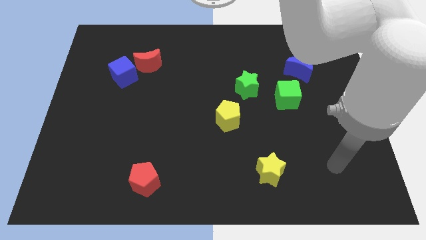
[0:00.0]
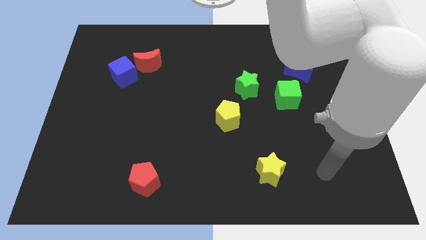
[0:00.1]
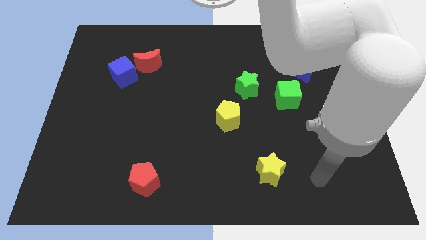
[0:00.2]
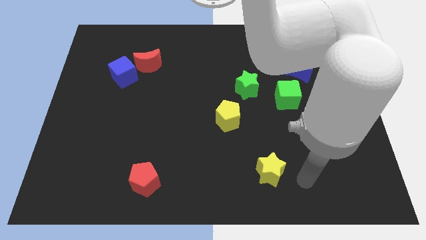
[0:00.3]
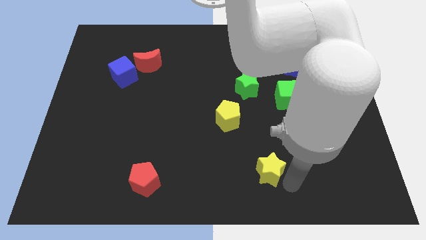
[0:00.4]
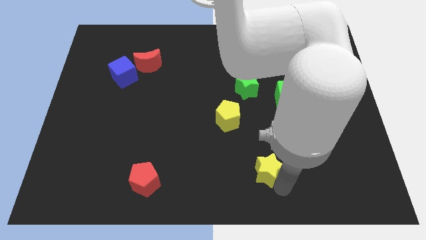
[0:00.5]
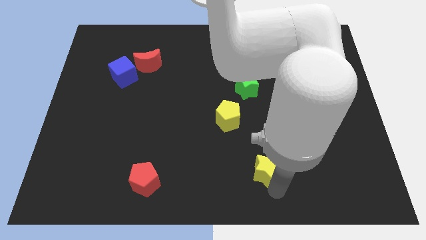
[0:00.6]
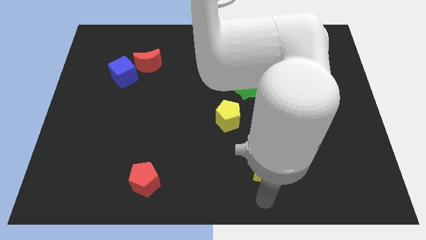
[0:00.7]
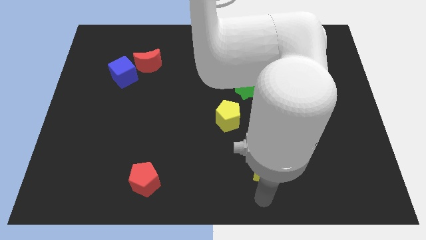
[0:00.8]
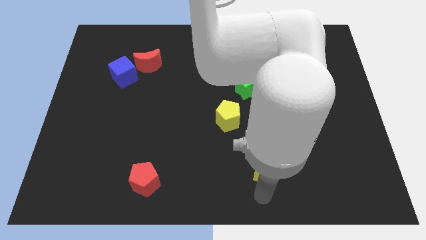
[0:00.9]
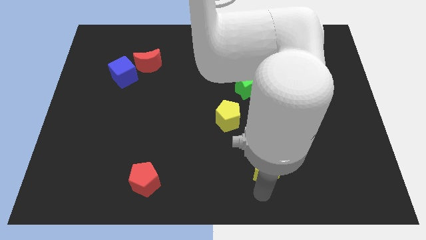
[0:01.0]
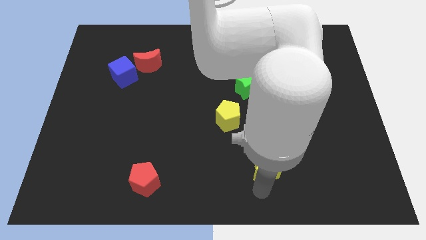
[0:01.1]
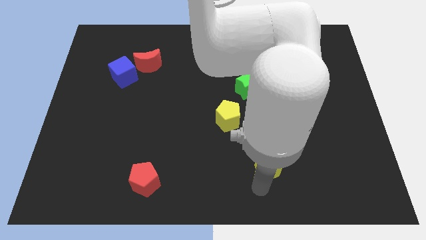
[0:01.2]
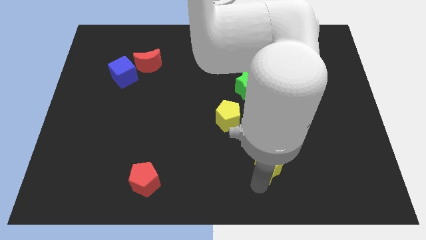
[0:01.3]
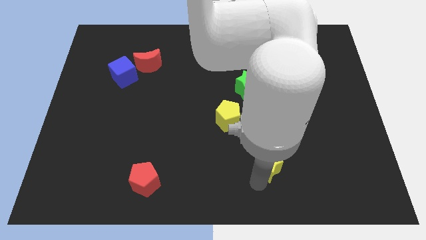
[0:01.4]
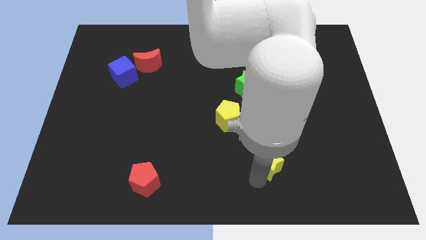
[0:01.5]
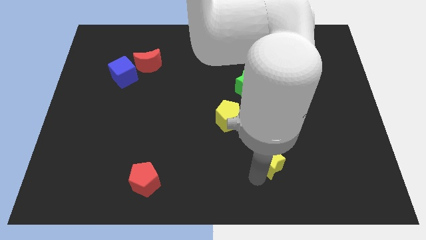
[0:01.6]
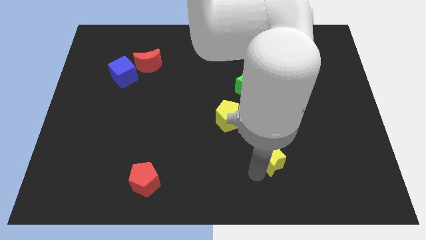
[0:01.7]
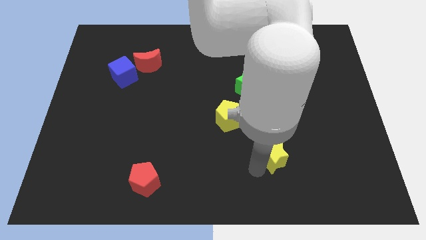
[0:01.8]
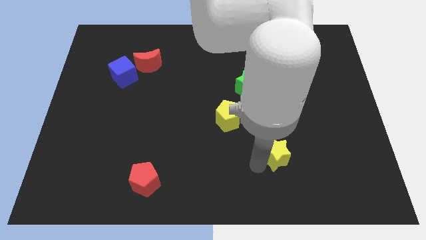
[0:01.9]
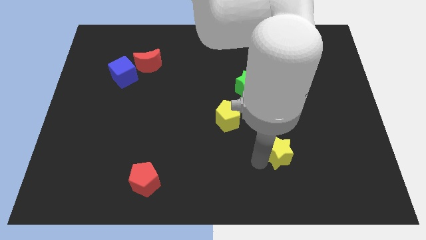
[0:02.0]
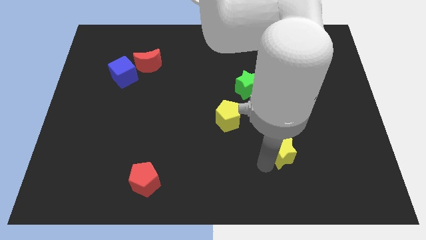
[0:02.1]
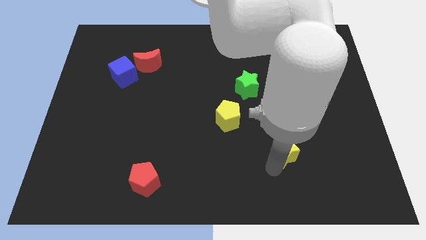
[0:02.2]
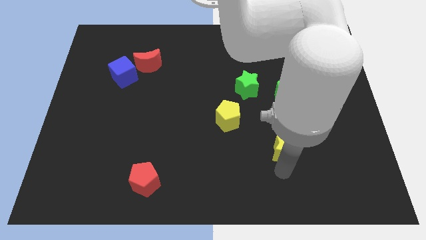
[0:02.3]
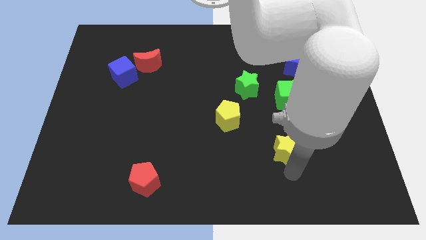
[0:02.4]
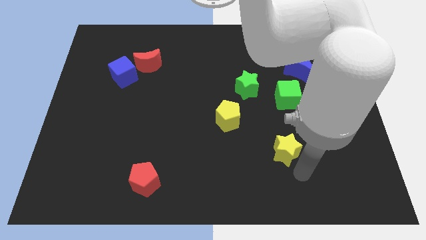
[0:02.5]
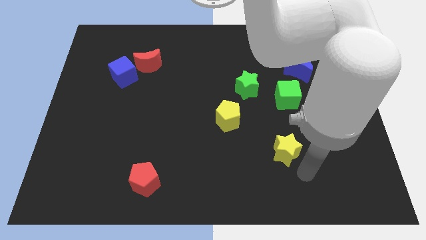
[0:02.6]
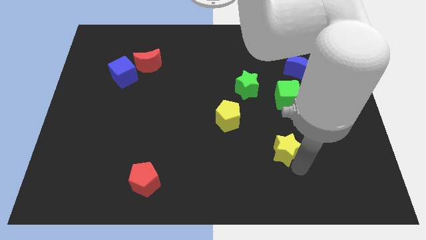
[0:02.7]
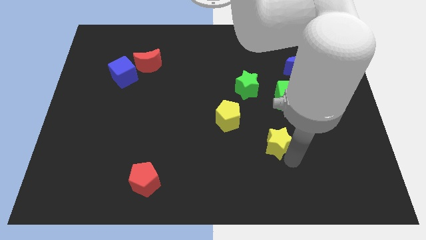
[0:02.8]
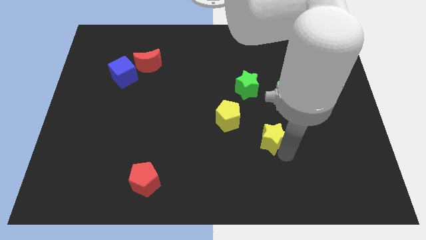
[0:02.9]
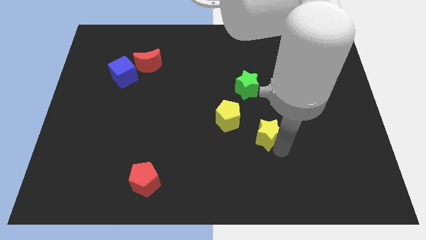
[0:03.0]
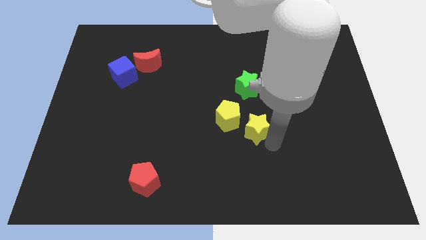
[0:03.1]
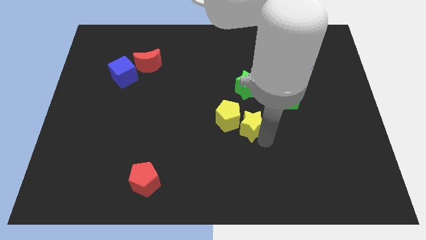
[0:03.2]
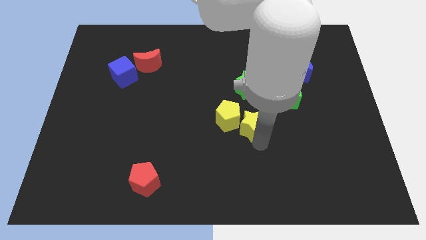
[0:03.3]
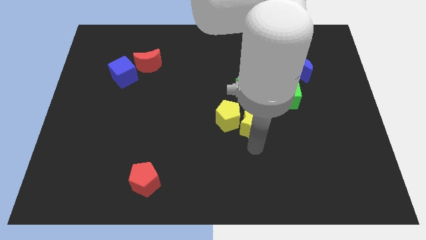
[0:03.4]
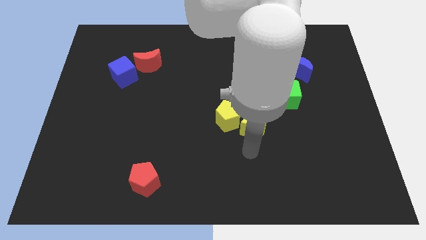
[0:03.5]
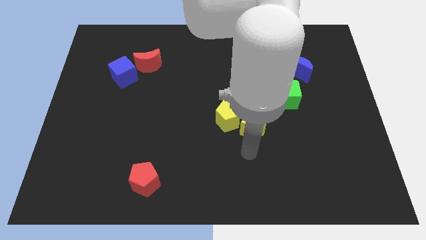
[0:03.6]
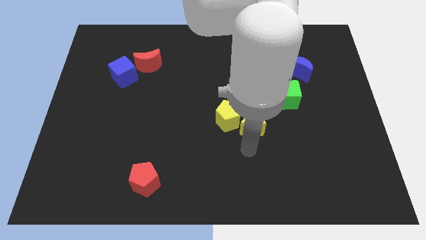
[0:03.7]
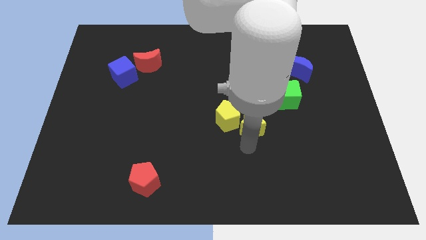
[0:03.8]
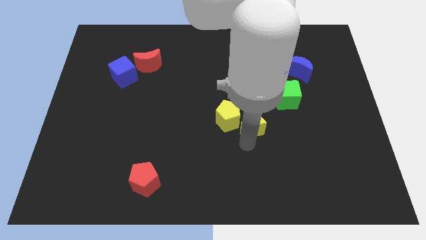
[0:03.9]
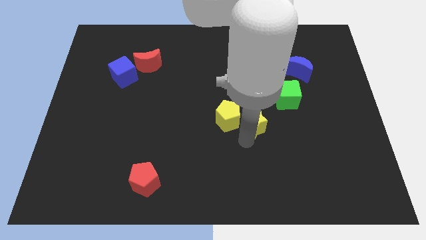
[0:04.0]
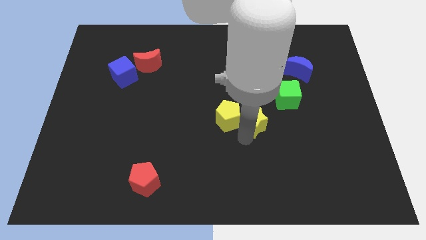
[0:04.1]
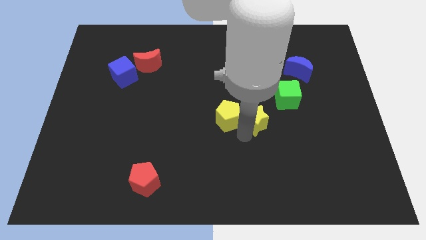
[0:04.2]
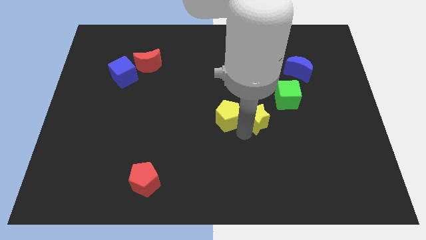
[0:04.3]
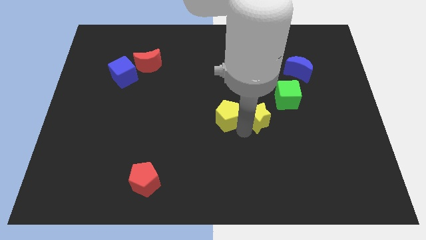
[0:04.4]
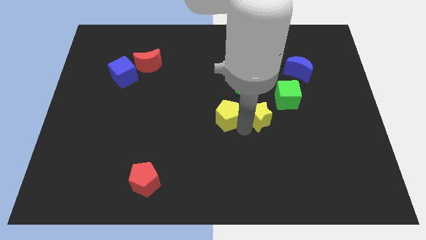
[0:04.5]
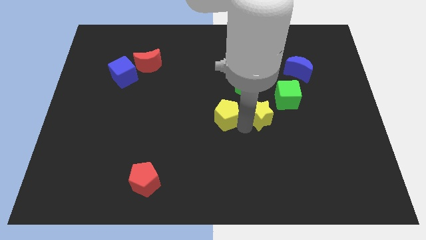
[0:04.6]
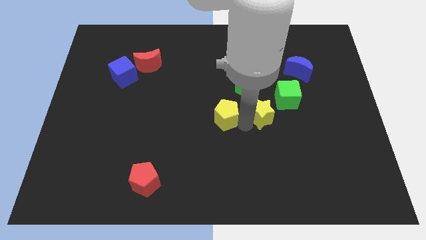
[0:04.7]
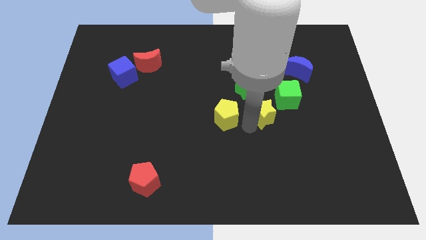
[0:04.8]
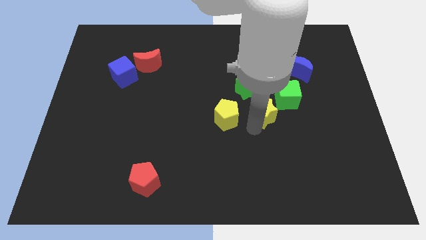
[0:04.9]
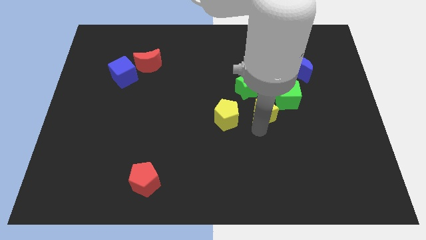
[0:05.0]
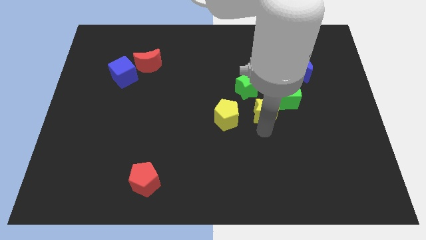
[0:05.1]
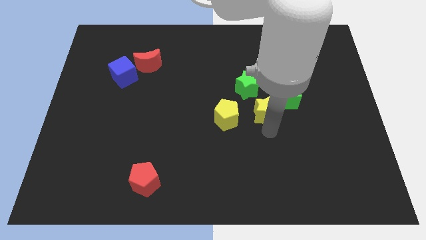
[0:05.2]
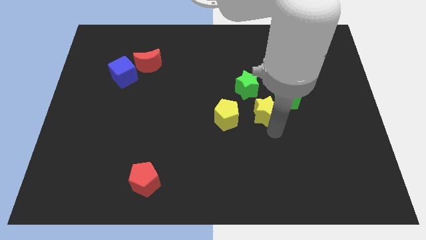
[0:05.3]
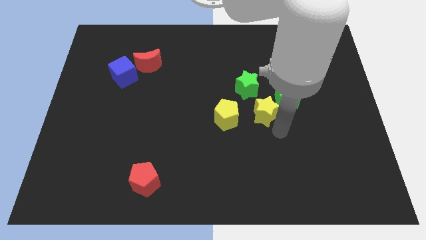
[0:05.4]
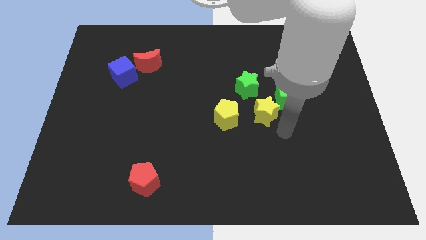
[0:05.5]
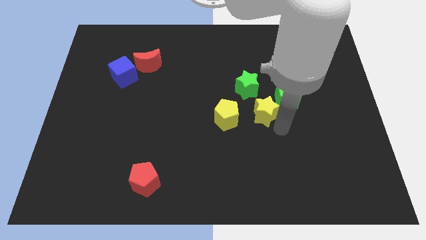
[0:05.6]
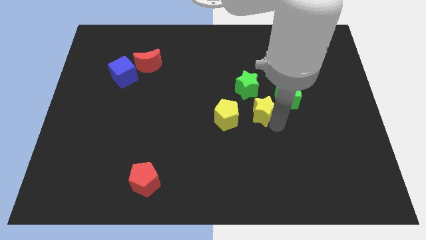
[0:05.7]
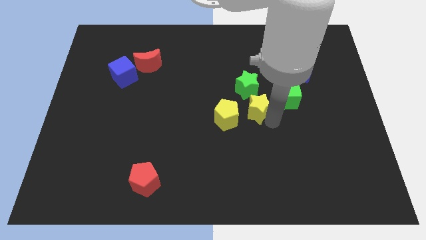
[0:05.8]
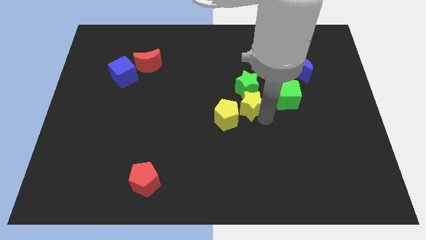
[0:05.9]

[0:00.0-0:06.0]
put the yellow star towards the green star

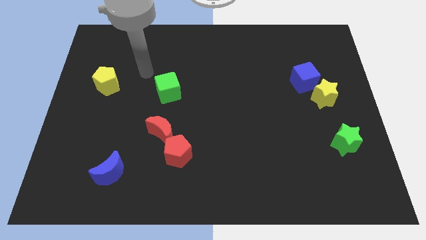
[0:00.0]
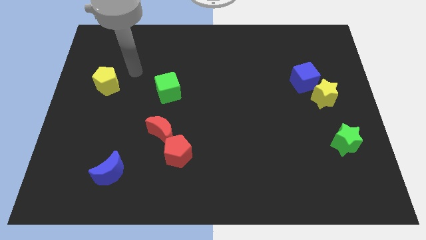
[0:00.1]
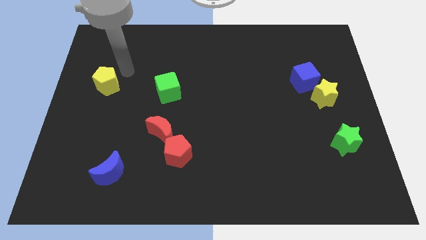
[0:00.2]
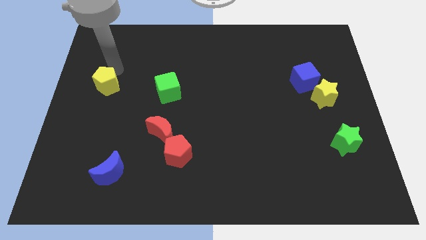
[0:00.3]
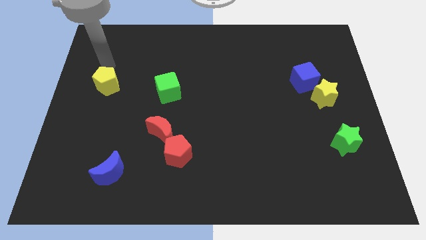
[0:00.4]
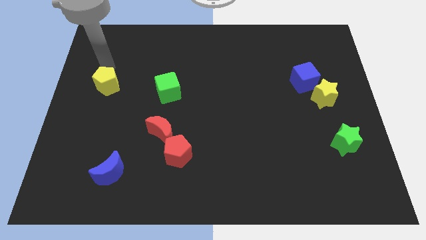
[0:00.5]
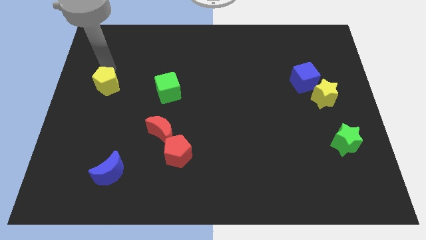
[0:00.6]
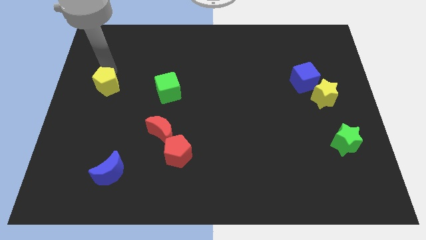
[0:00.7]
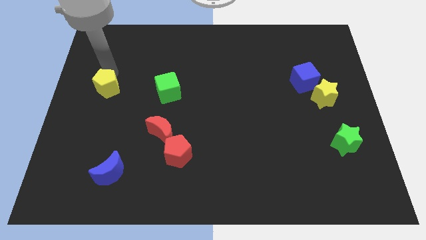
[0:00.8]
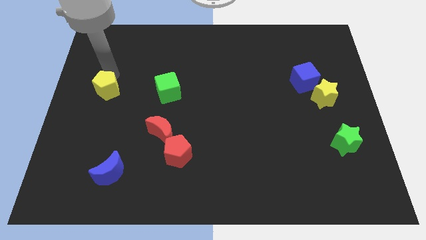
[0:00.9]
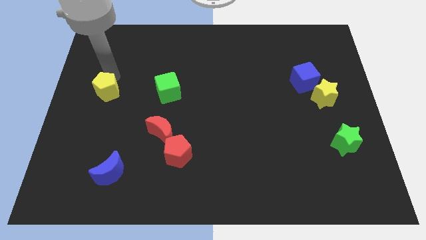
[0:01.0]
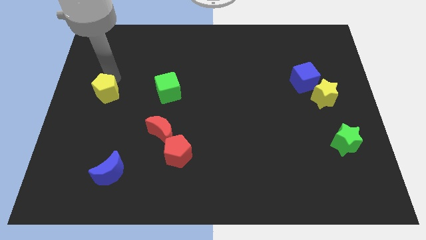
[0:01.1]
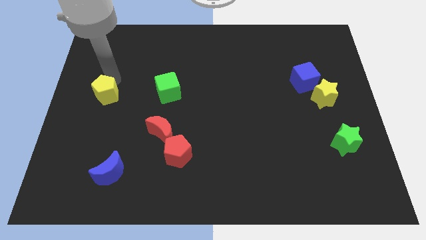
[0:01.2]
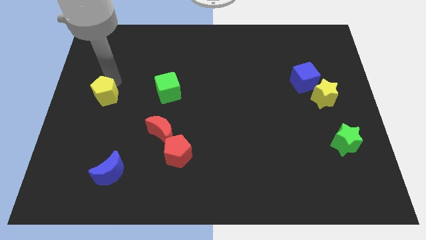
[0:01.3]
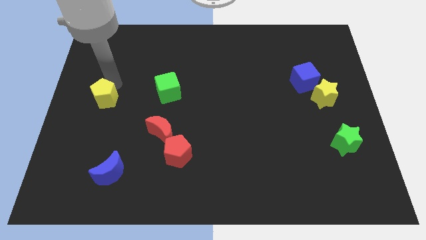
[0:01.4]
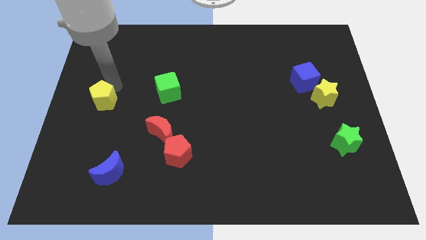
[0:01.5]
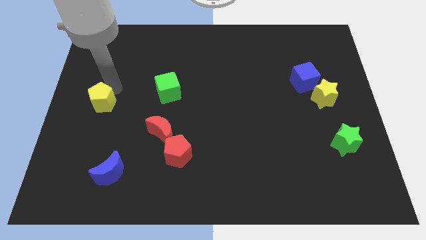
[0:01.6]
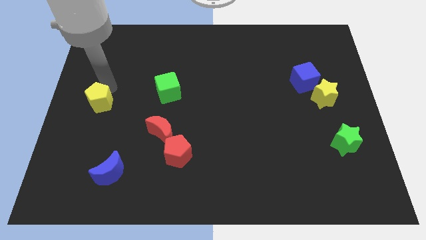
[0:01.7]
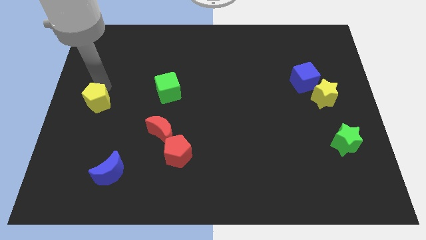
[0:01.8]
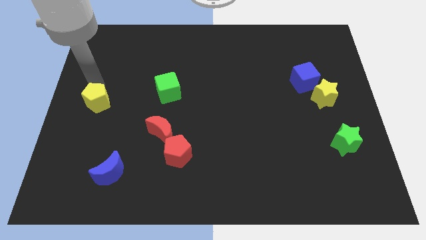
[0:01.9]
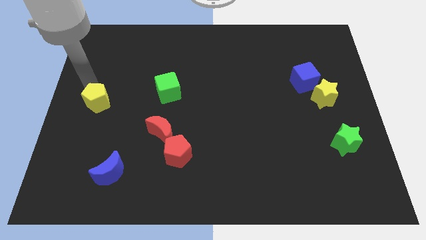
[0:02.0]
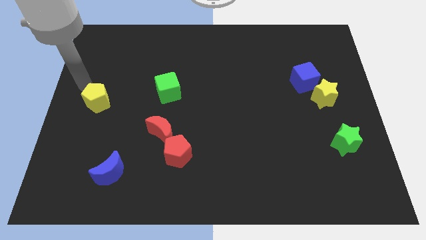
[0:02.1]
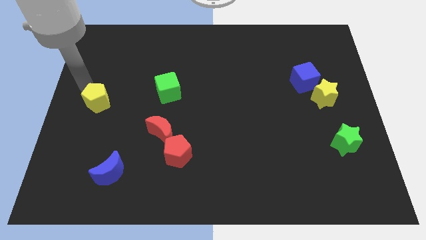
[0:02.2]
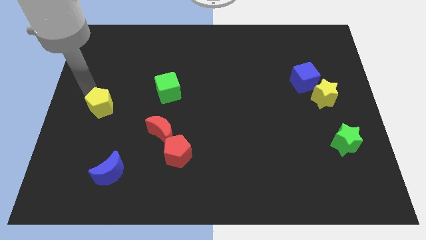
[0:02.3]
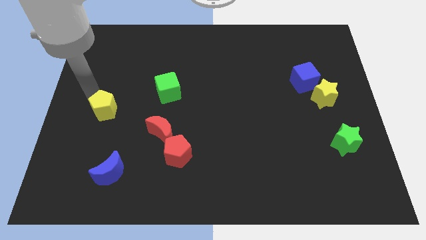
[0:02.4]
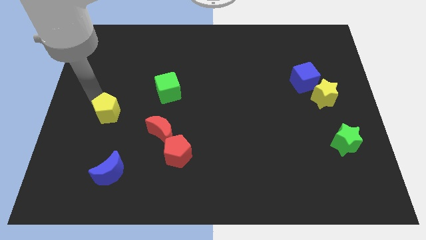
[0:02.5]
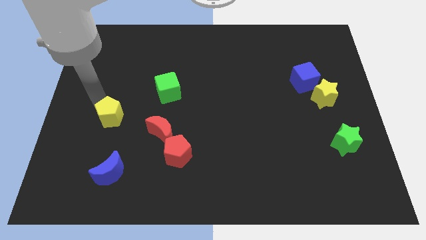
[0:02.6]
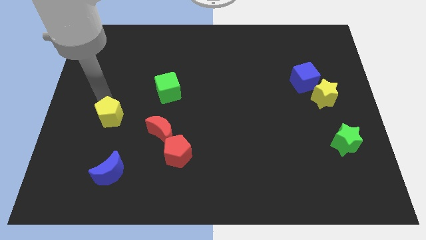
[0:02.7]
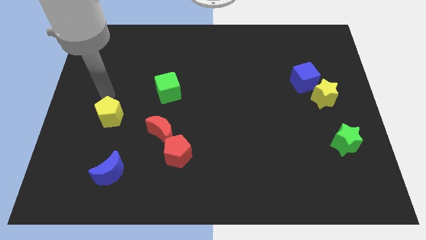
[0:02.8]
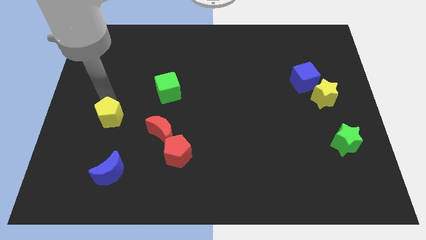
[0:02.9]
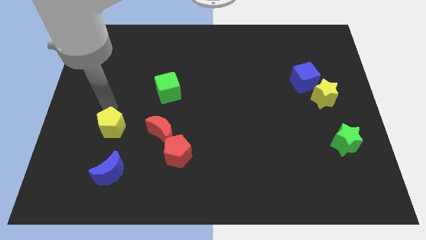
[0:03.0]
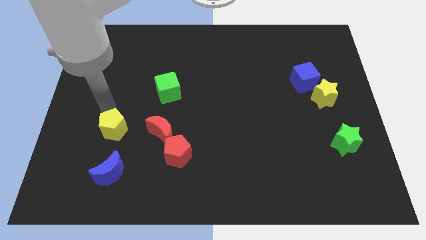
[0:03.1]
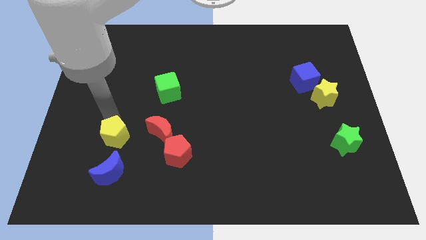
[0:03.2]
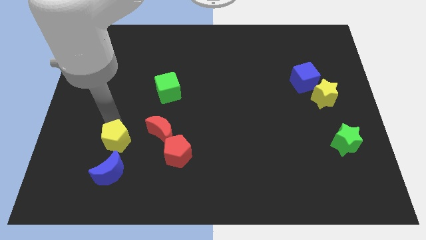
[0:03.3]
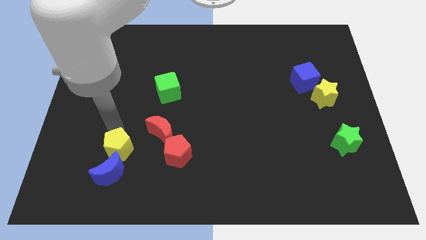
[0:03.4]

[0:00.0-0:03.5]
move the yellow pentagon towards the blue moon
